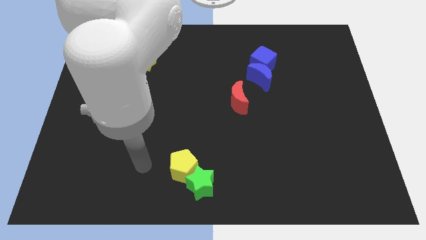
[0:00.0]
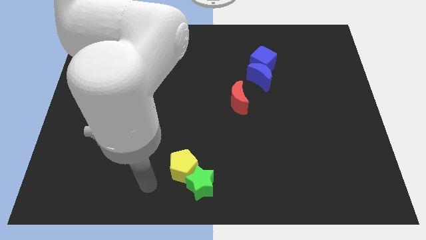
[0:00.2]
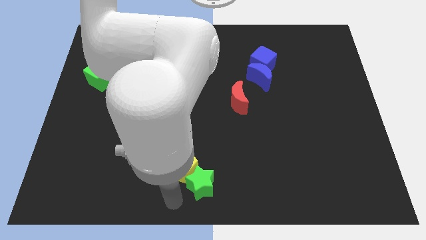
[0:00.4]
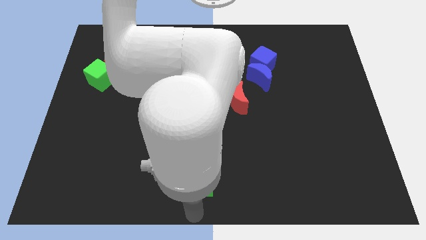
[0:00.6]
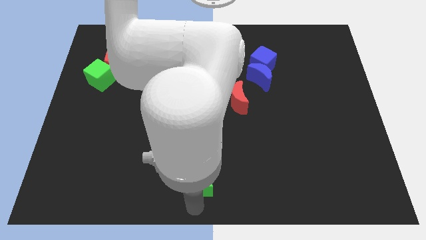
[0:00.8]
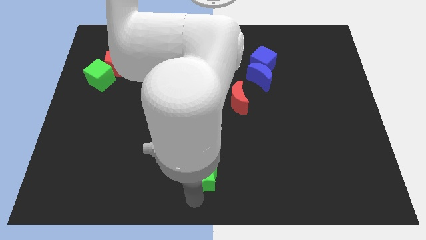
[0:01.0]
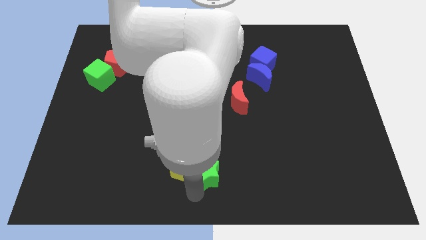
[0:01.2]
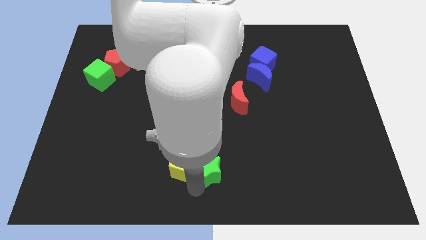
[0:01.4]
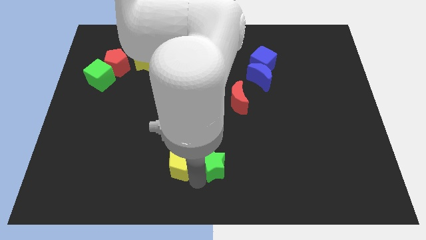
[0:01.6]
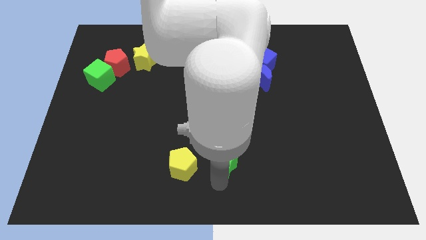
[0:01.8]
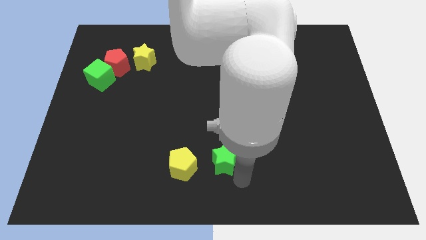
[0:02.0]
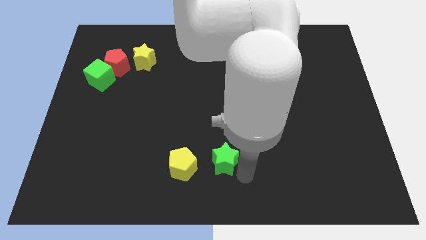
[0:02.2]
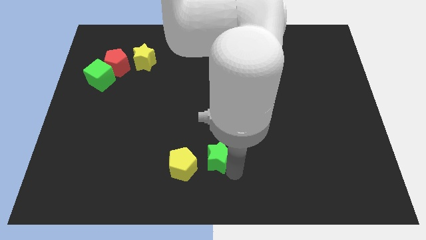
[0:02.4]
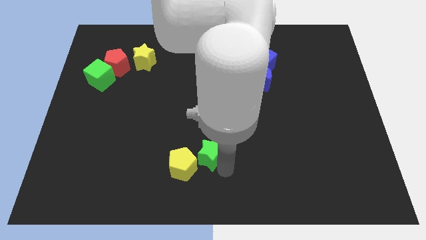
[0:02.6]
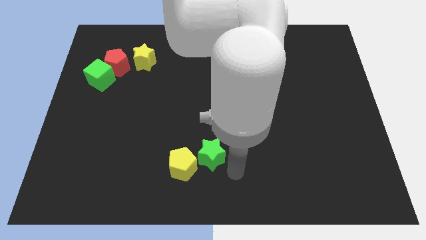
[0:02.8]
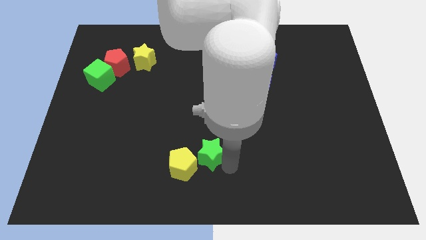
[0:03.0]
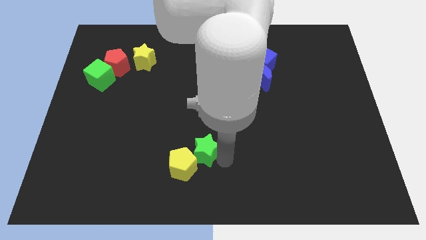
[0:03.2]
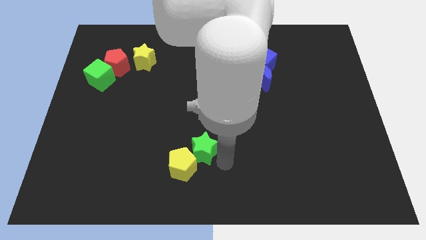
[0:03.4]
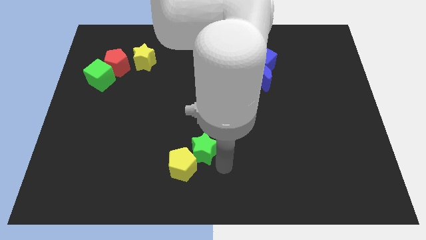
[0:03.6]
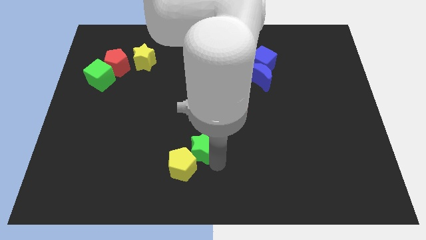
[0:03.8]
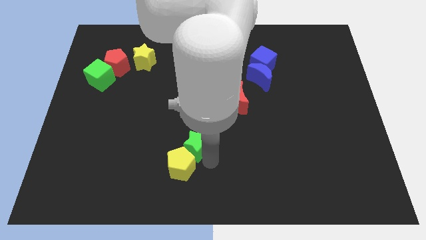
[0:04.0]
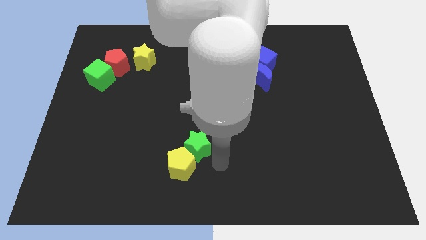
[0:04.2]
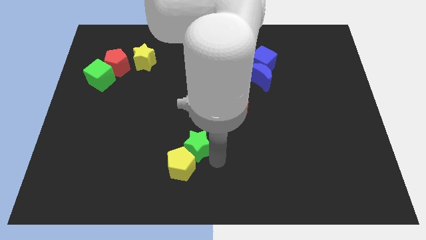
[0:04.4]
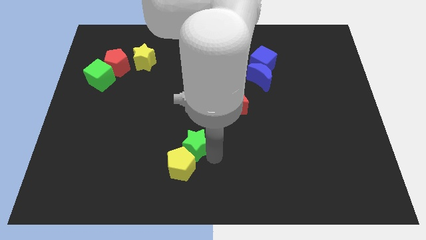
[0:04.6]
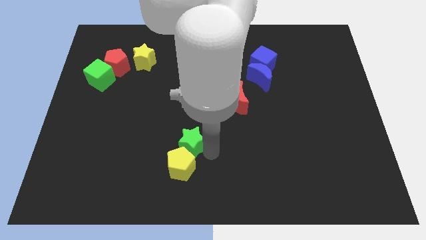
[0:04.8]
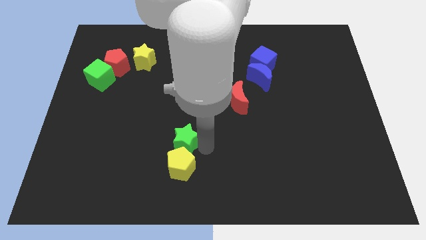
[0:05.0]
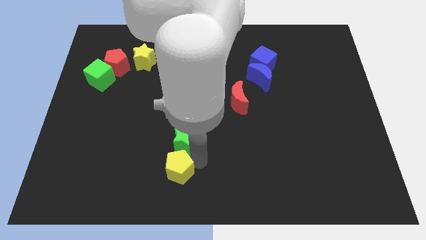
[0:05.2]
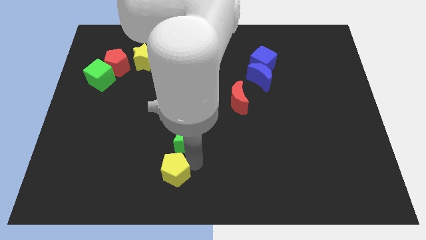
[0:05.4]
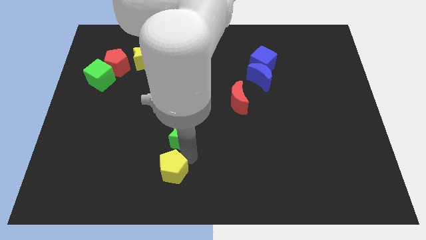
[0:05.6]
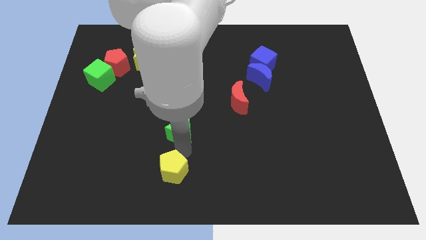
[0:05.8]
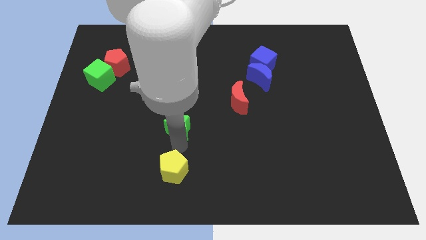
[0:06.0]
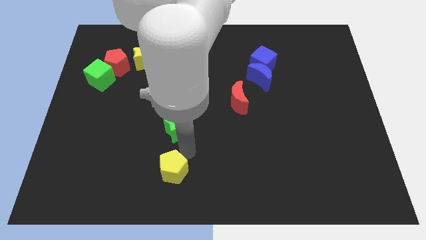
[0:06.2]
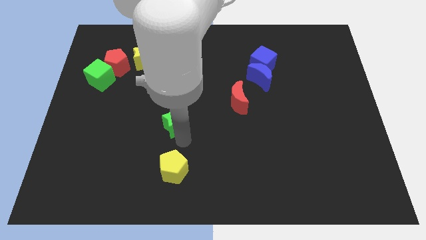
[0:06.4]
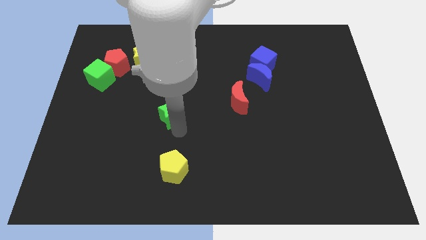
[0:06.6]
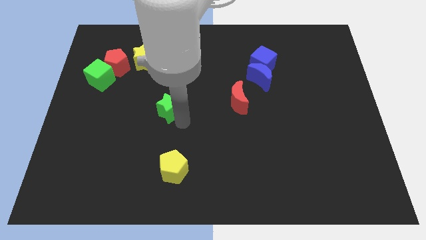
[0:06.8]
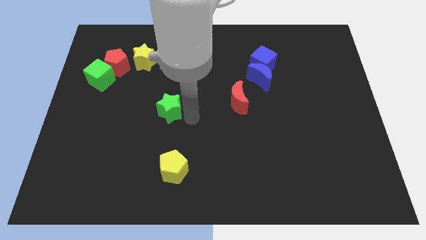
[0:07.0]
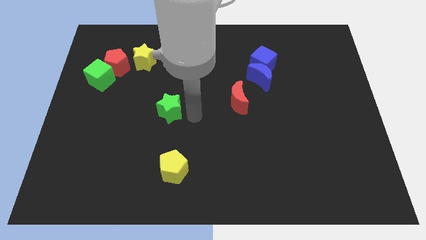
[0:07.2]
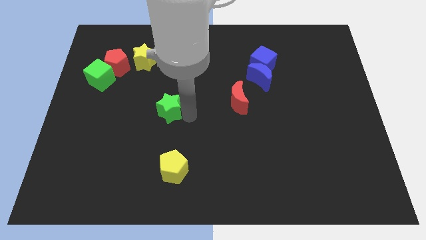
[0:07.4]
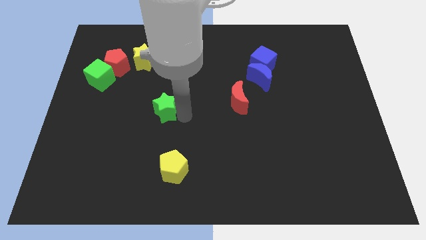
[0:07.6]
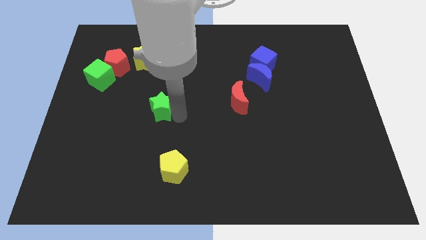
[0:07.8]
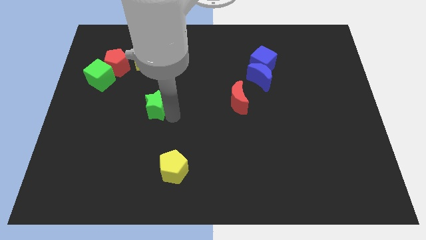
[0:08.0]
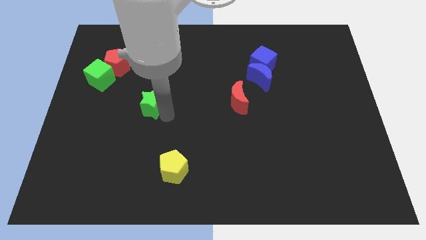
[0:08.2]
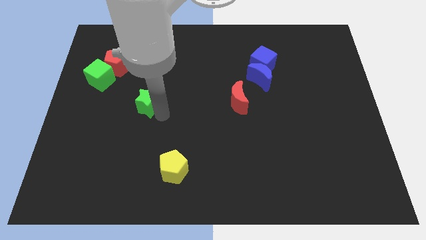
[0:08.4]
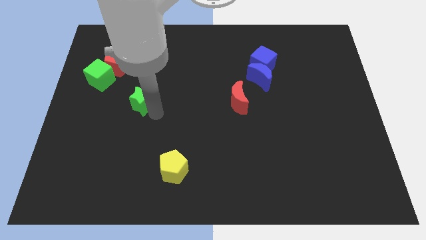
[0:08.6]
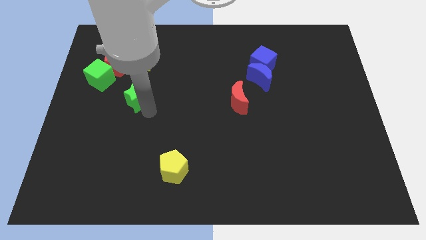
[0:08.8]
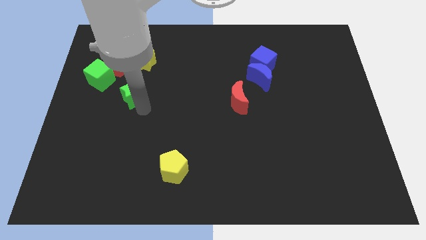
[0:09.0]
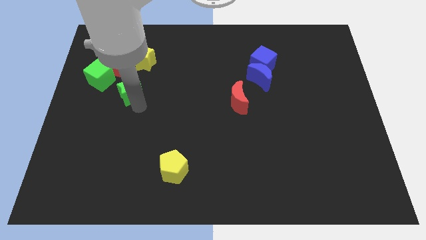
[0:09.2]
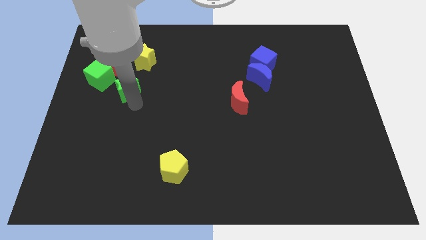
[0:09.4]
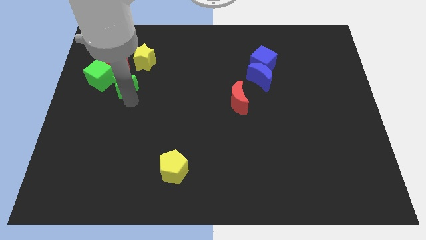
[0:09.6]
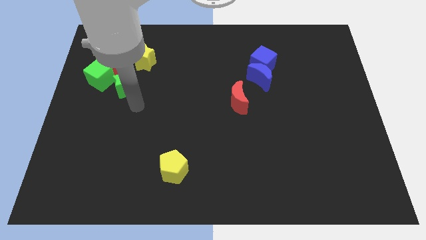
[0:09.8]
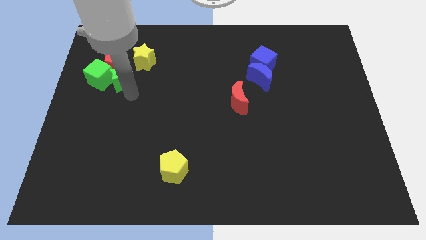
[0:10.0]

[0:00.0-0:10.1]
slide the green star to the red pentagon
